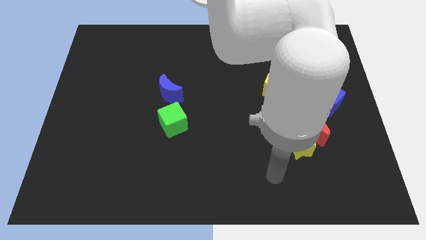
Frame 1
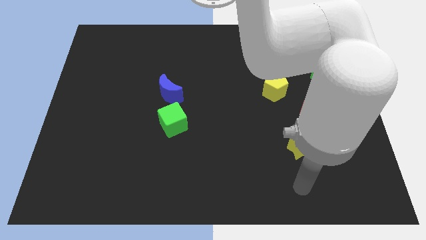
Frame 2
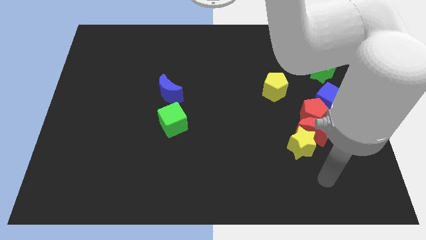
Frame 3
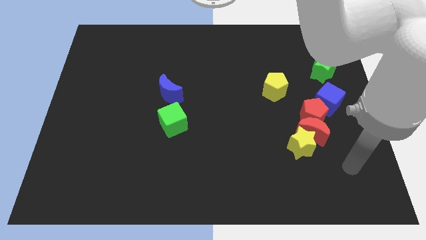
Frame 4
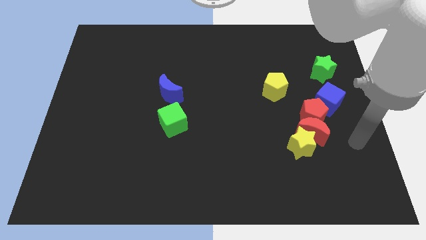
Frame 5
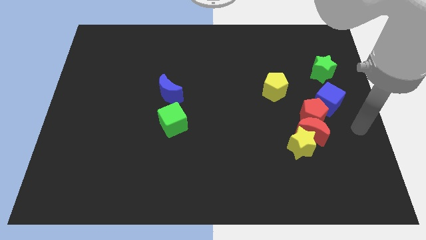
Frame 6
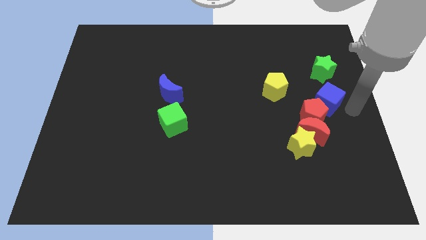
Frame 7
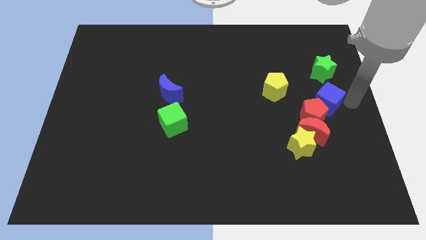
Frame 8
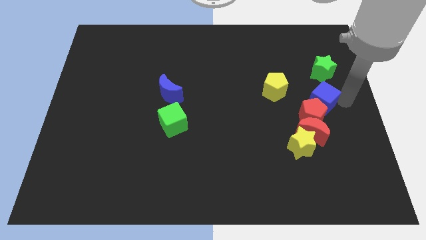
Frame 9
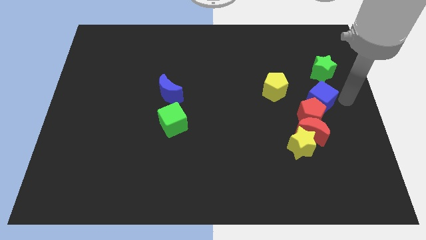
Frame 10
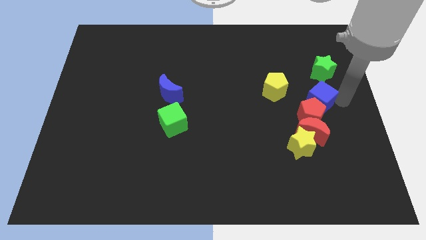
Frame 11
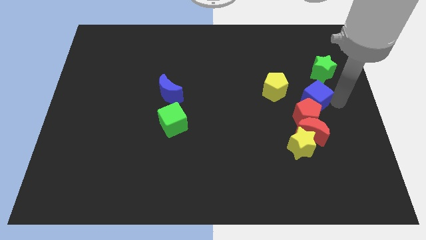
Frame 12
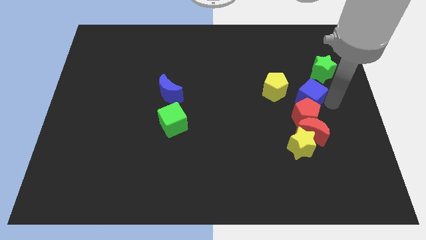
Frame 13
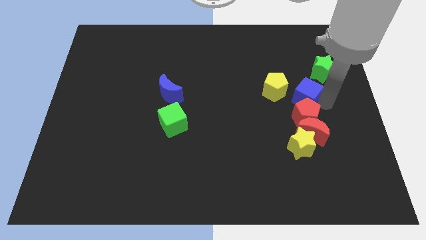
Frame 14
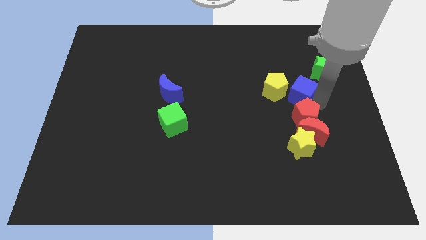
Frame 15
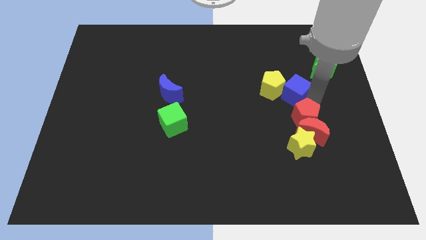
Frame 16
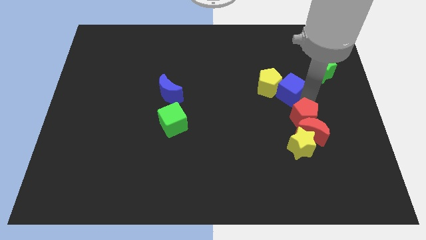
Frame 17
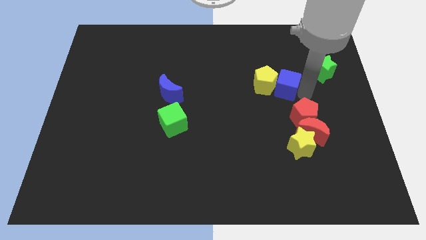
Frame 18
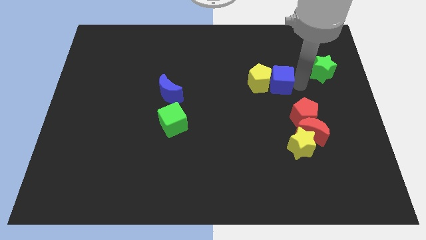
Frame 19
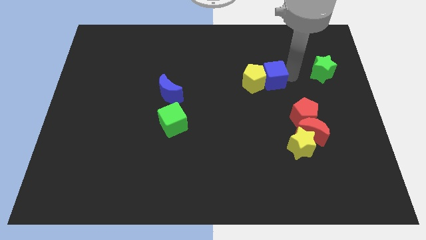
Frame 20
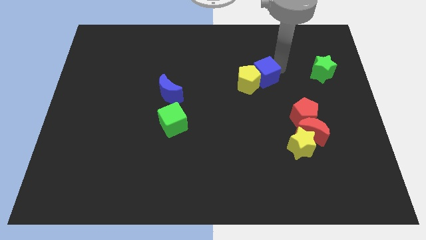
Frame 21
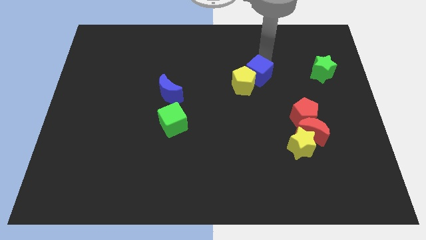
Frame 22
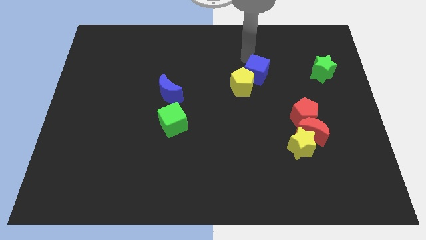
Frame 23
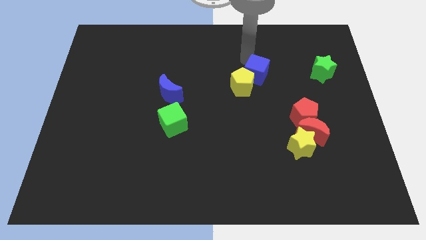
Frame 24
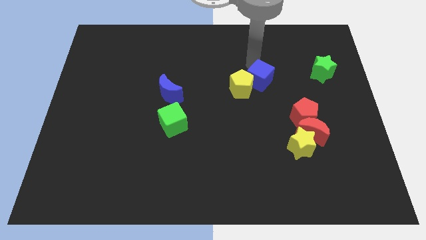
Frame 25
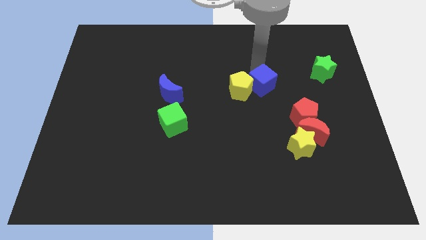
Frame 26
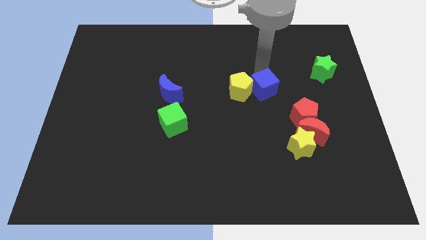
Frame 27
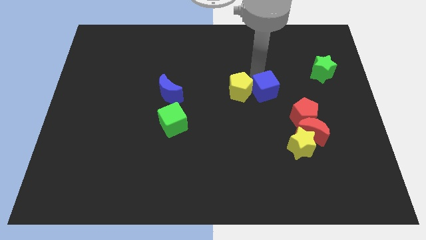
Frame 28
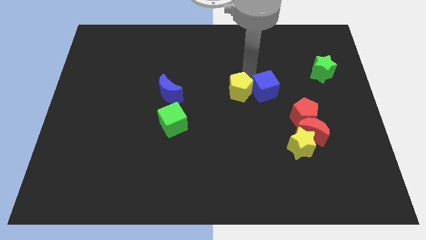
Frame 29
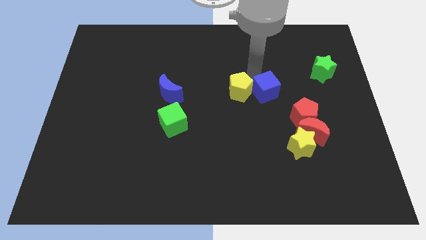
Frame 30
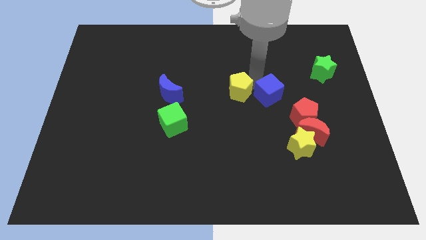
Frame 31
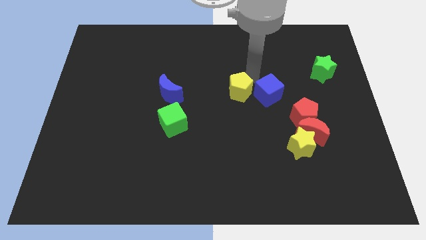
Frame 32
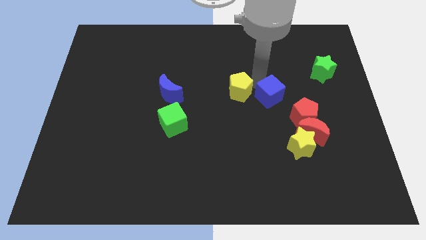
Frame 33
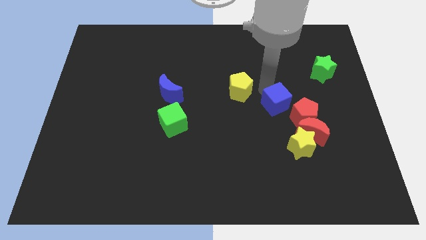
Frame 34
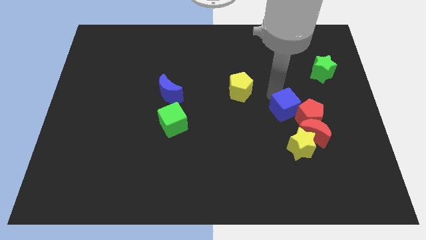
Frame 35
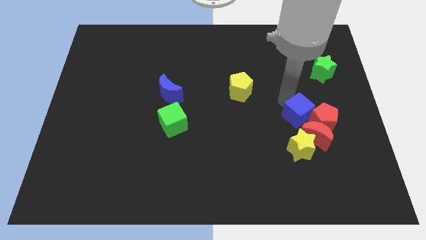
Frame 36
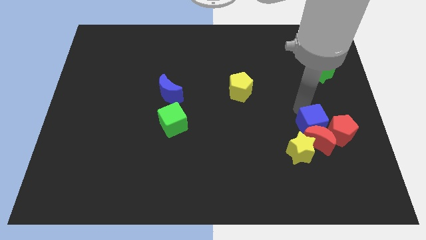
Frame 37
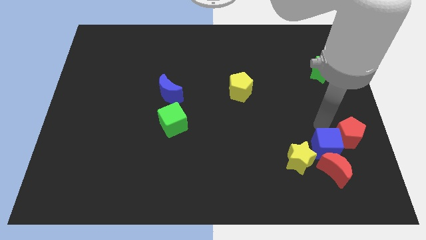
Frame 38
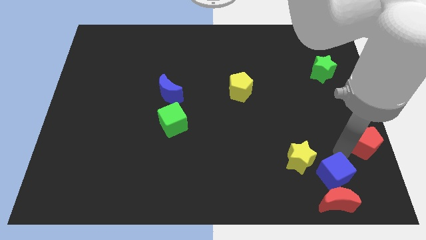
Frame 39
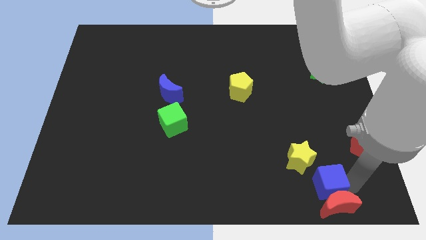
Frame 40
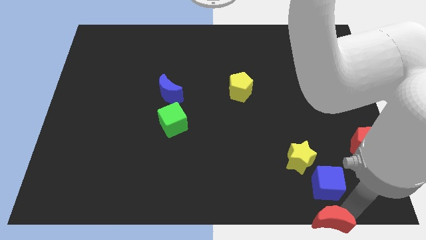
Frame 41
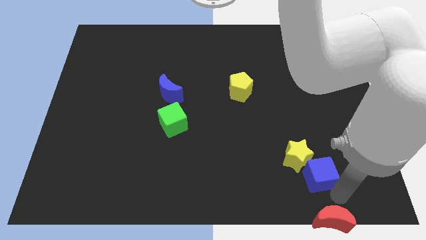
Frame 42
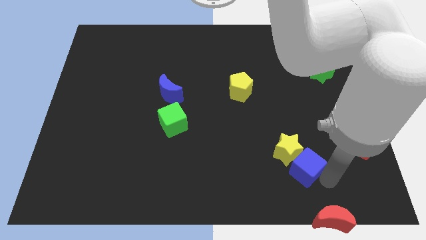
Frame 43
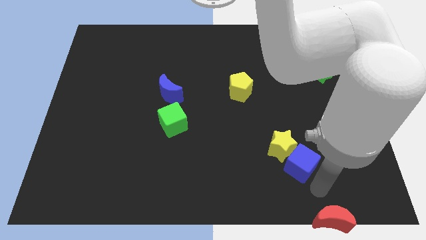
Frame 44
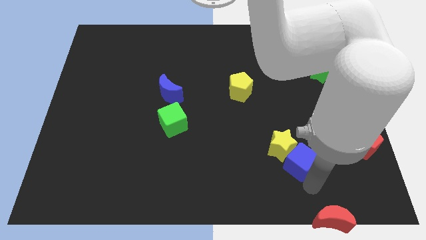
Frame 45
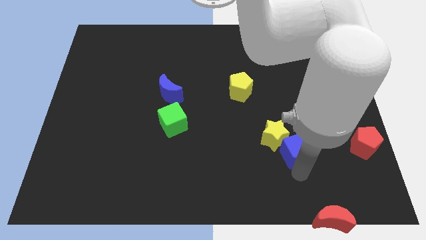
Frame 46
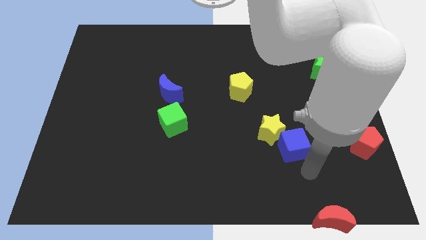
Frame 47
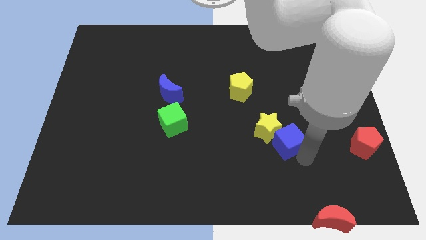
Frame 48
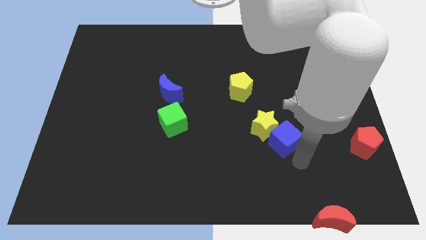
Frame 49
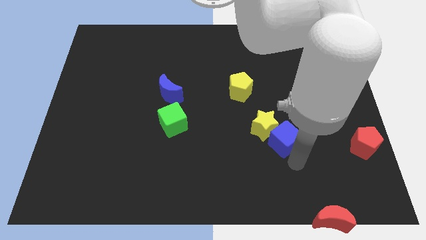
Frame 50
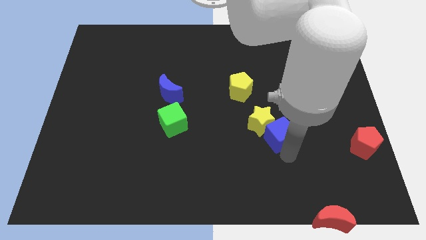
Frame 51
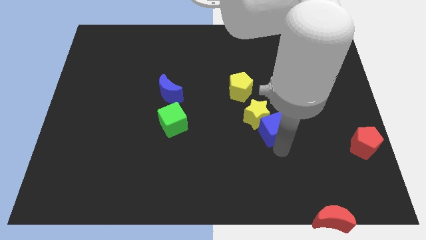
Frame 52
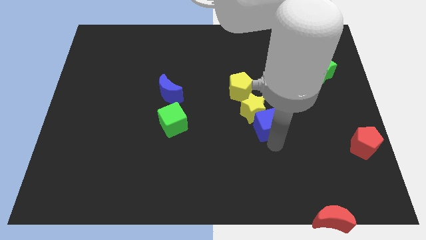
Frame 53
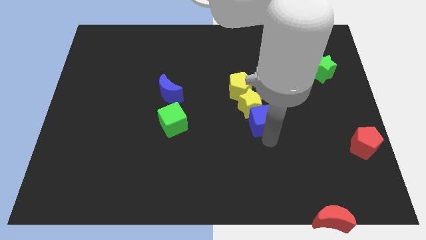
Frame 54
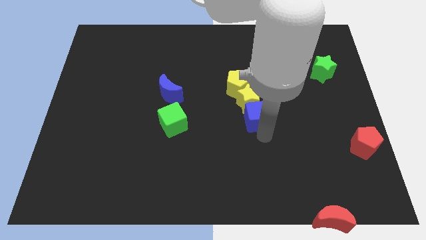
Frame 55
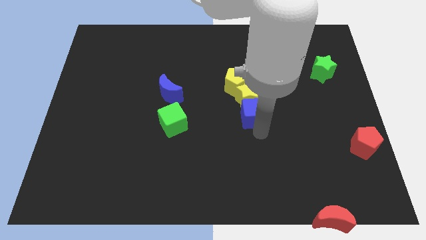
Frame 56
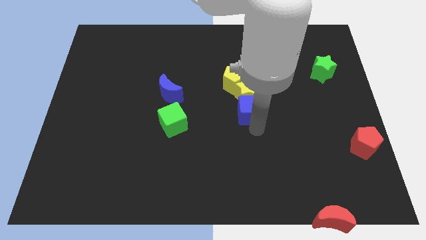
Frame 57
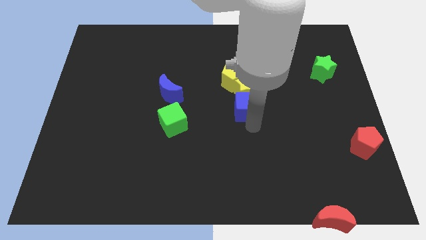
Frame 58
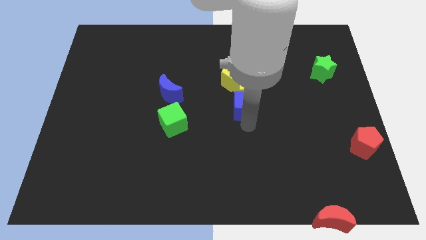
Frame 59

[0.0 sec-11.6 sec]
slide the blue cube to the left

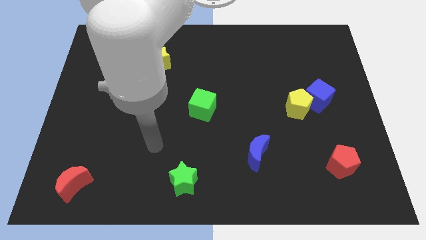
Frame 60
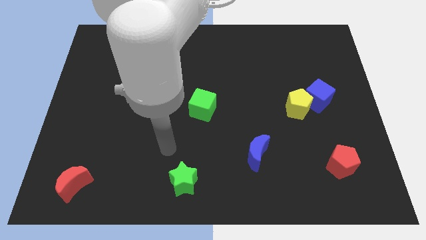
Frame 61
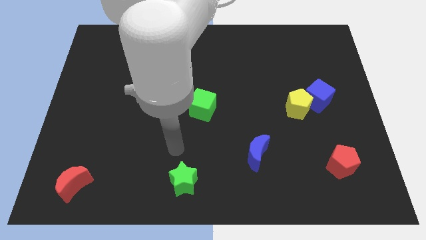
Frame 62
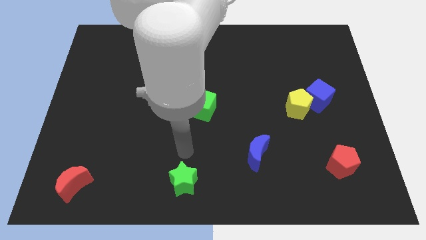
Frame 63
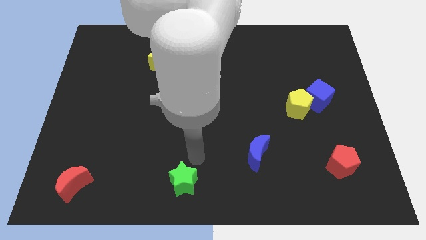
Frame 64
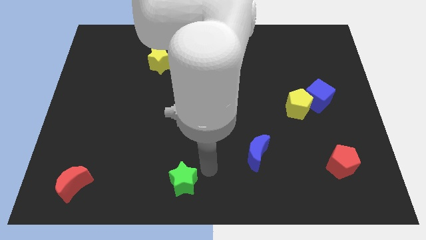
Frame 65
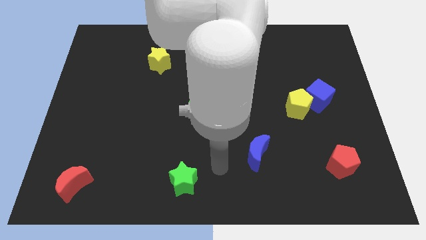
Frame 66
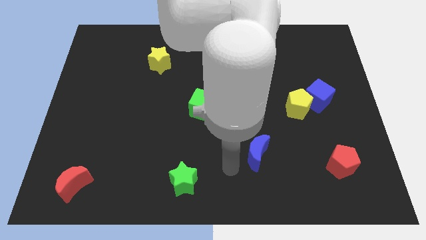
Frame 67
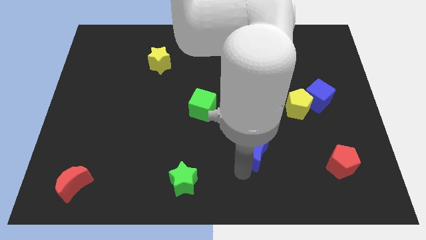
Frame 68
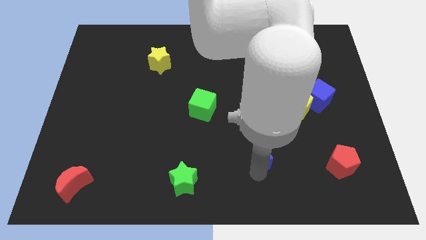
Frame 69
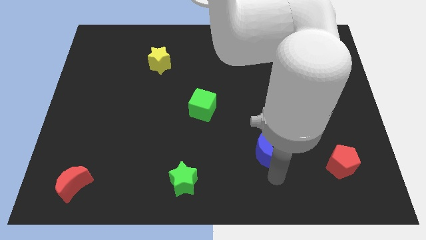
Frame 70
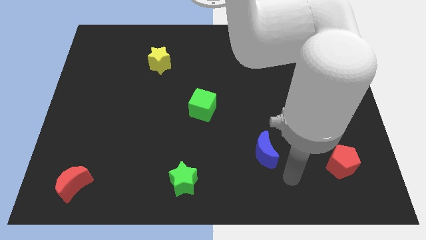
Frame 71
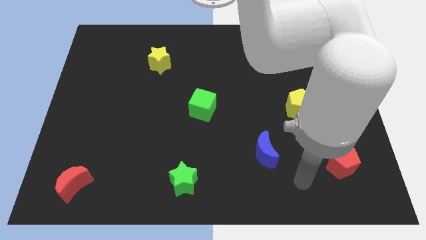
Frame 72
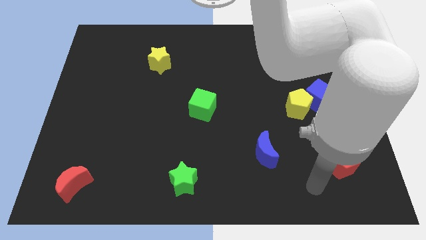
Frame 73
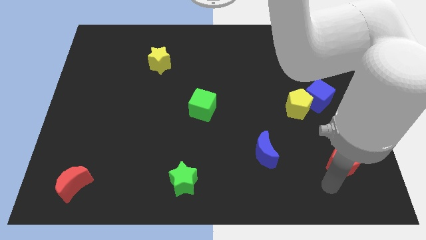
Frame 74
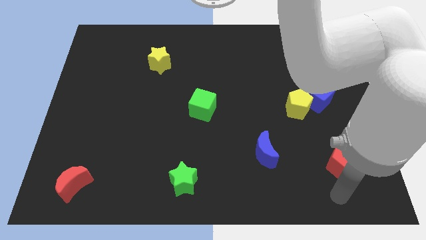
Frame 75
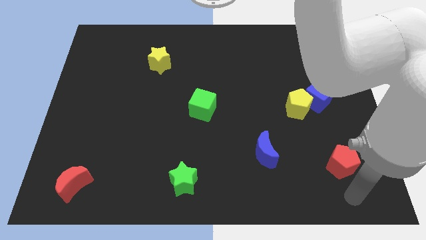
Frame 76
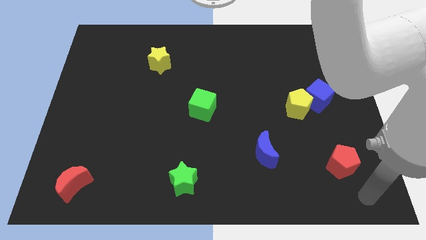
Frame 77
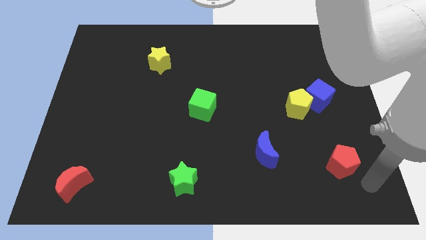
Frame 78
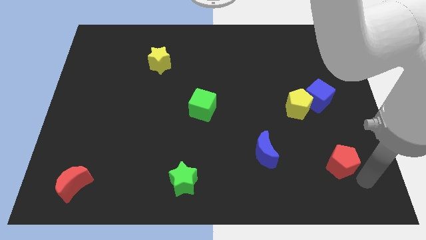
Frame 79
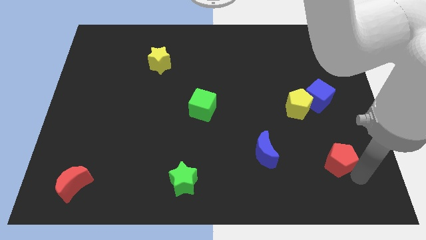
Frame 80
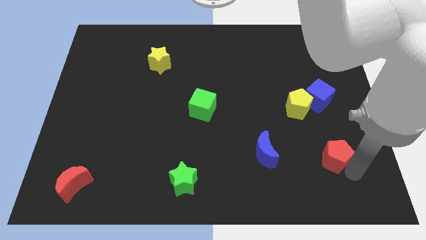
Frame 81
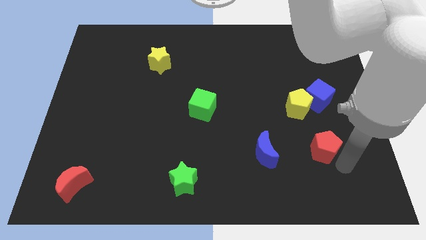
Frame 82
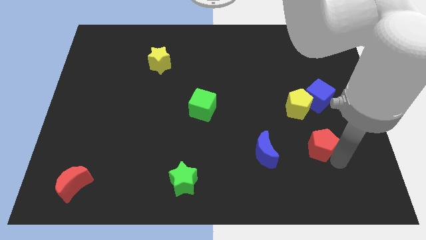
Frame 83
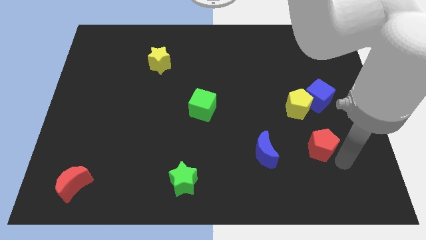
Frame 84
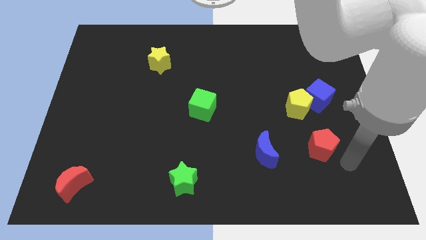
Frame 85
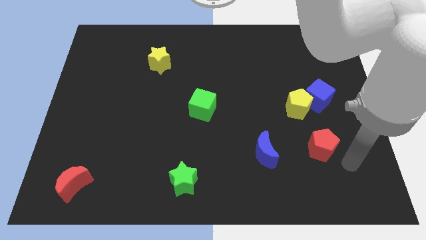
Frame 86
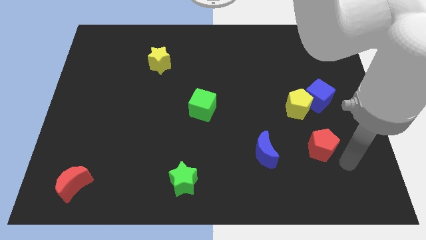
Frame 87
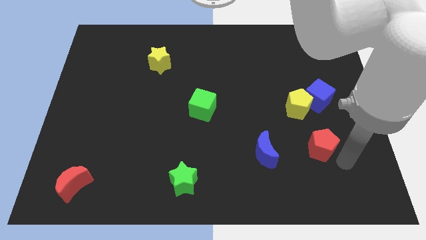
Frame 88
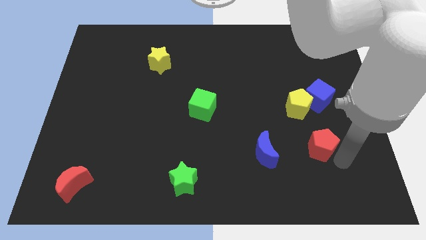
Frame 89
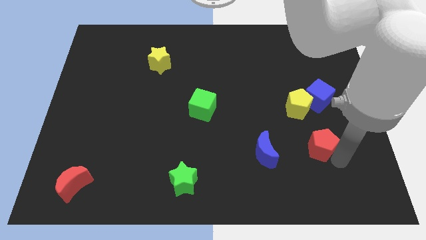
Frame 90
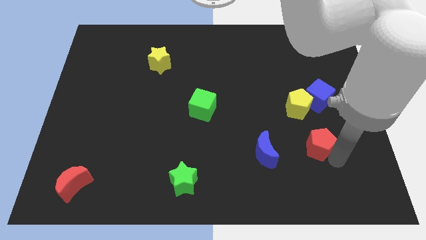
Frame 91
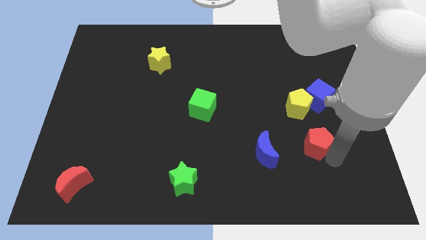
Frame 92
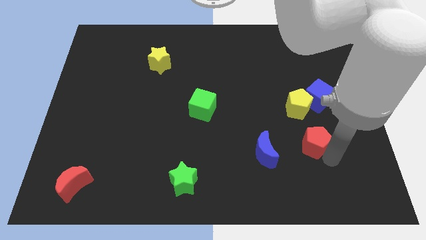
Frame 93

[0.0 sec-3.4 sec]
move the red pentagon diagonally up and left a little bit
